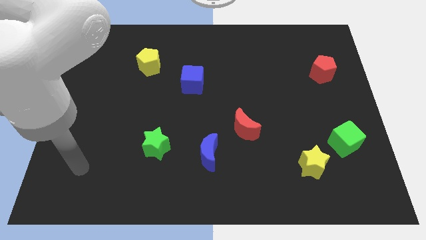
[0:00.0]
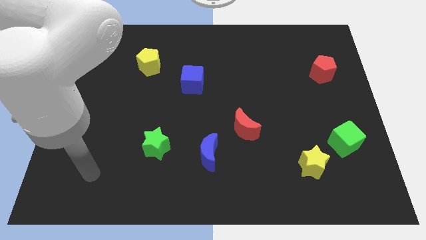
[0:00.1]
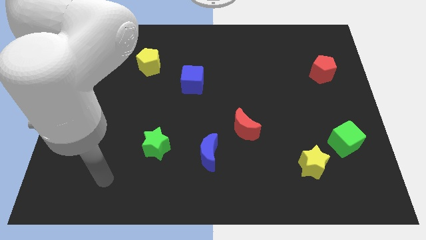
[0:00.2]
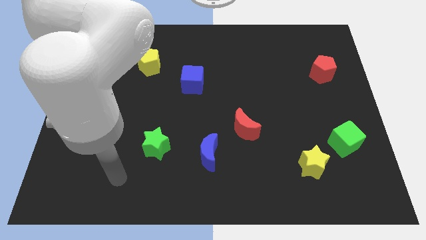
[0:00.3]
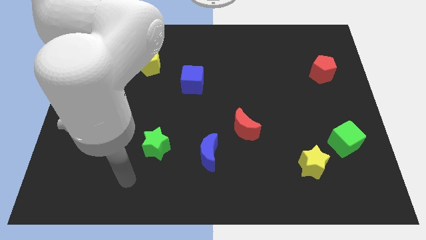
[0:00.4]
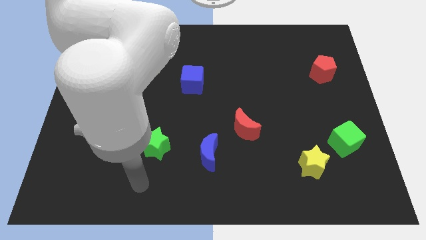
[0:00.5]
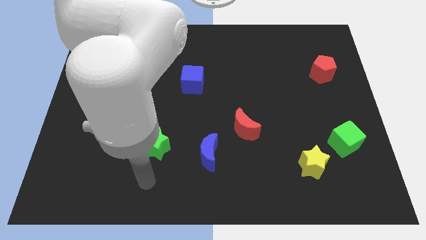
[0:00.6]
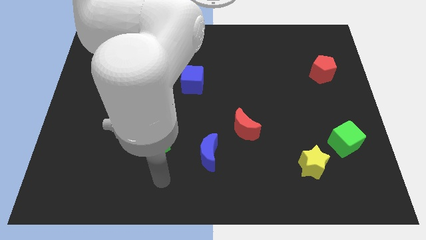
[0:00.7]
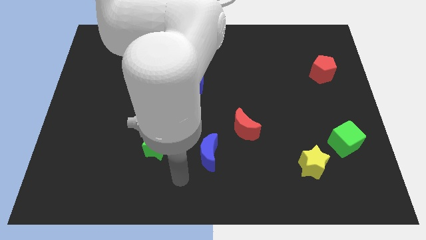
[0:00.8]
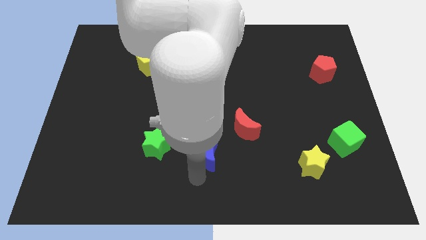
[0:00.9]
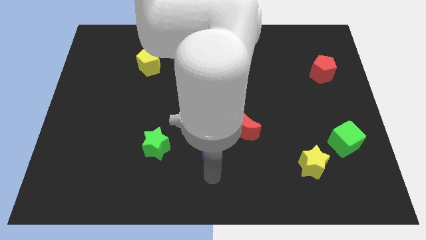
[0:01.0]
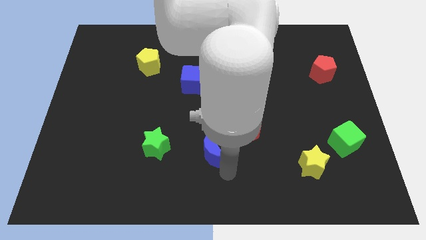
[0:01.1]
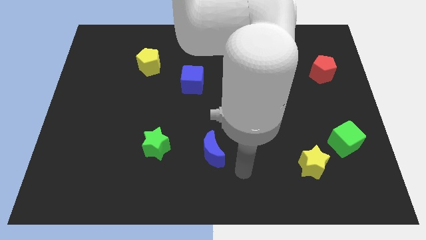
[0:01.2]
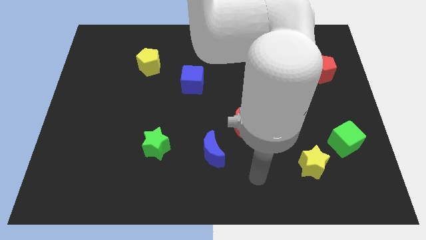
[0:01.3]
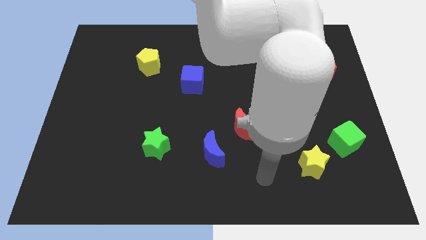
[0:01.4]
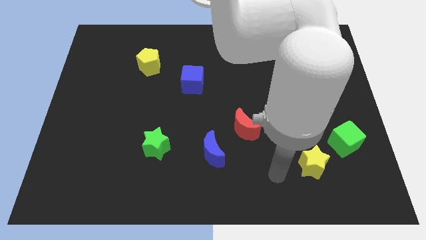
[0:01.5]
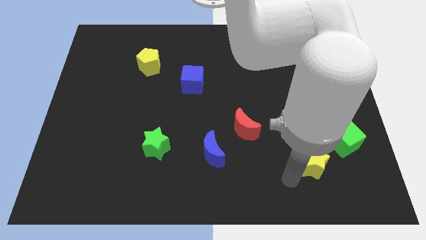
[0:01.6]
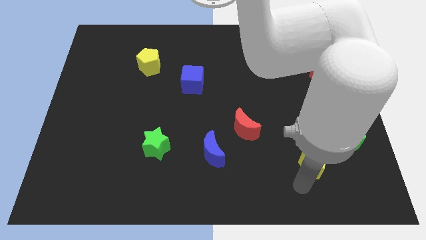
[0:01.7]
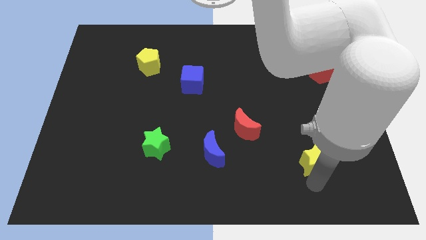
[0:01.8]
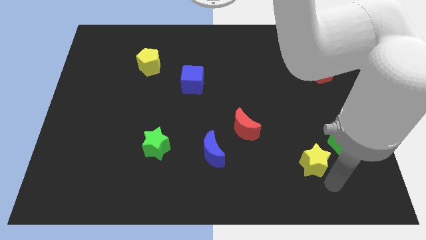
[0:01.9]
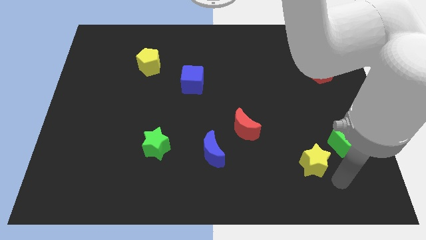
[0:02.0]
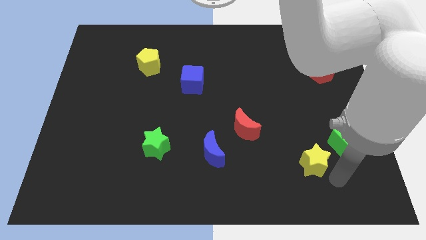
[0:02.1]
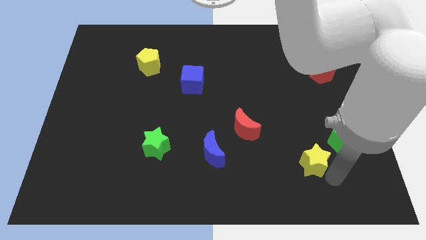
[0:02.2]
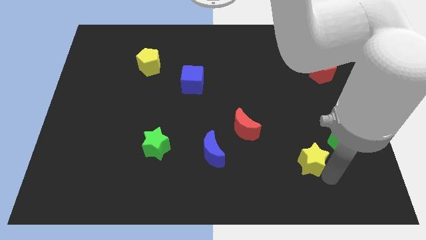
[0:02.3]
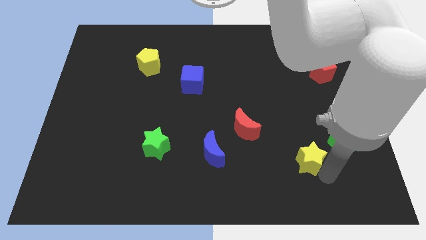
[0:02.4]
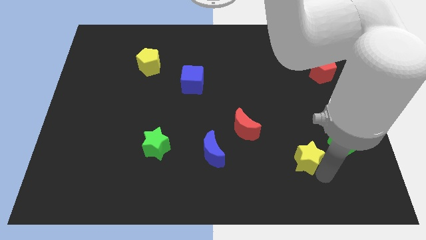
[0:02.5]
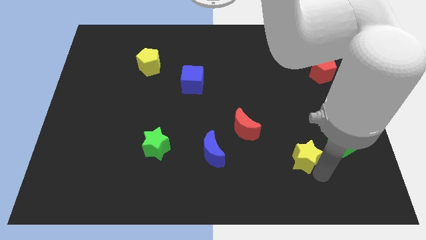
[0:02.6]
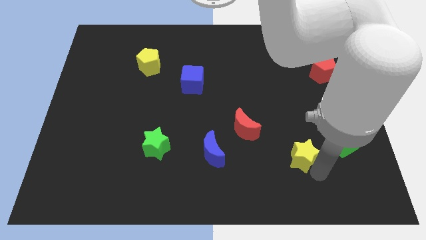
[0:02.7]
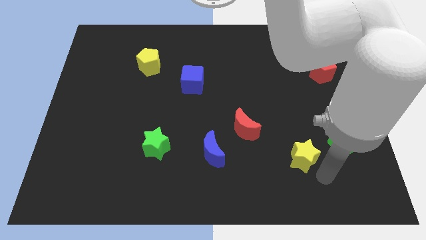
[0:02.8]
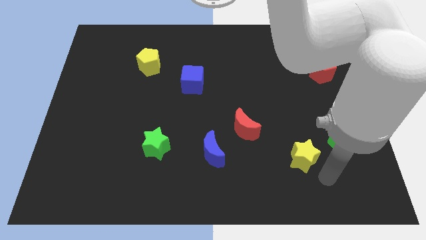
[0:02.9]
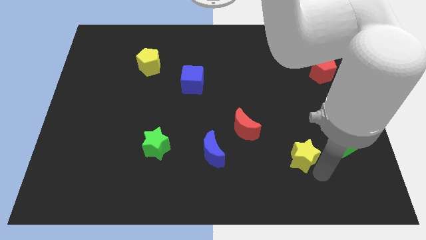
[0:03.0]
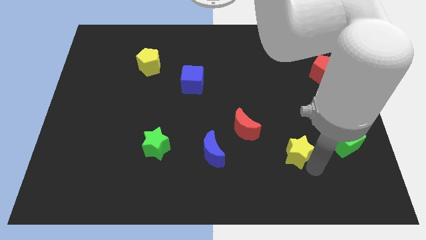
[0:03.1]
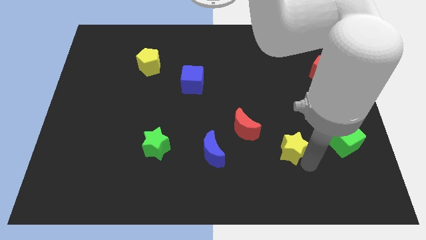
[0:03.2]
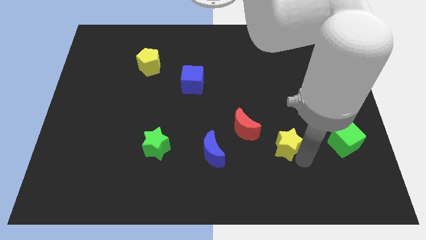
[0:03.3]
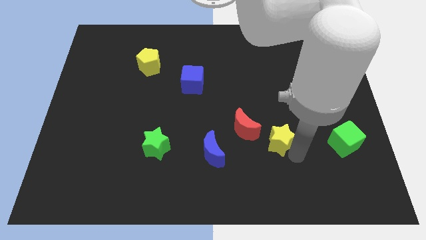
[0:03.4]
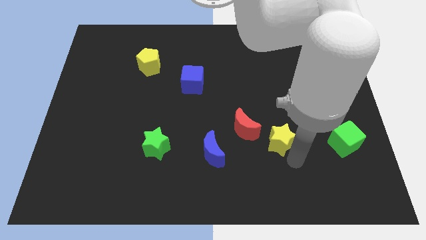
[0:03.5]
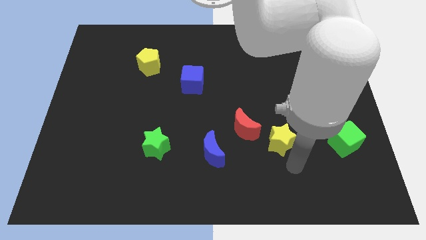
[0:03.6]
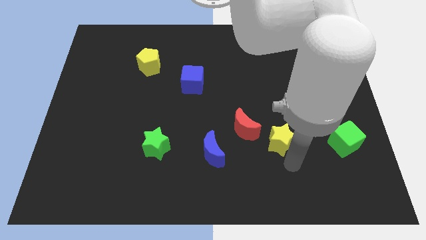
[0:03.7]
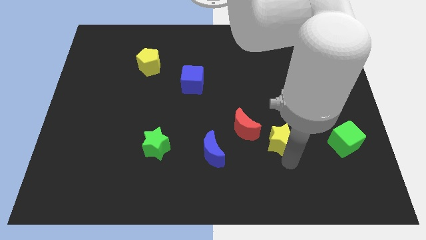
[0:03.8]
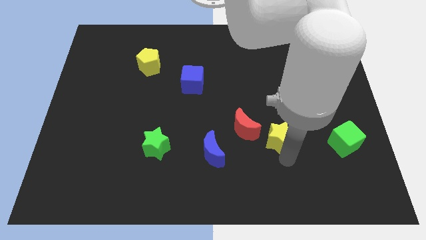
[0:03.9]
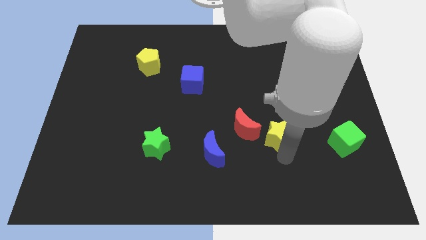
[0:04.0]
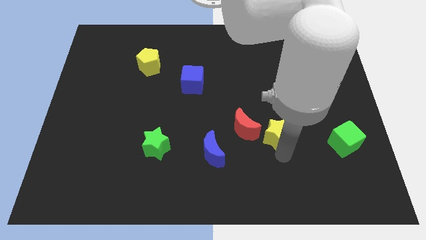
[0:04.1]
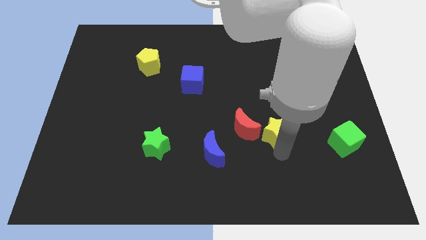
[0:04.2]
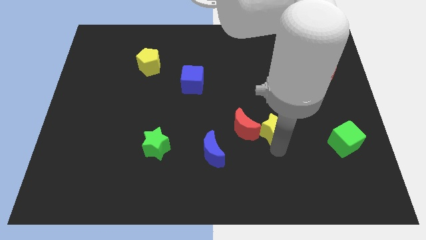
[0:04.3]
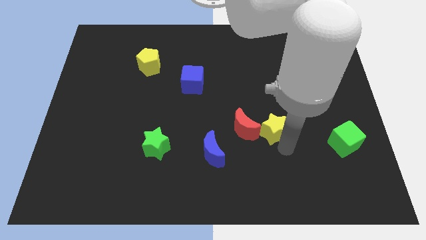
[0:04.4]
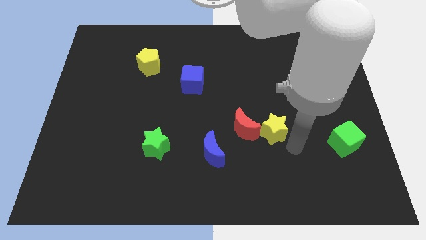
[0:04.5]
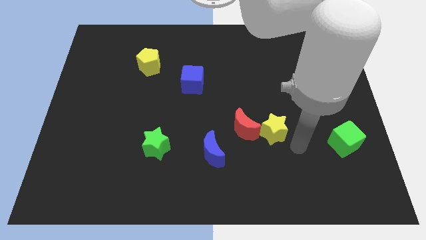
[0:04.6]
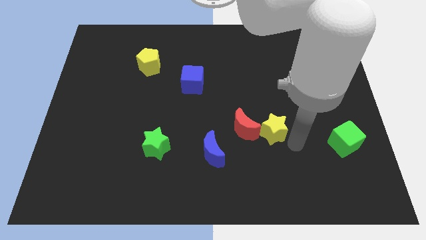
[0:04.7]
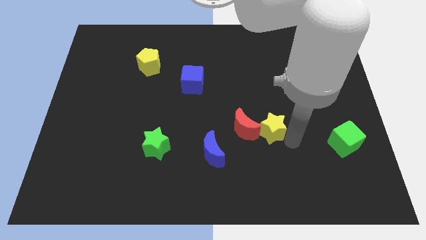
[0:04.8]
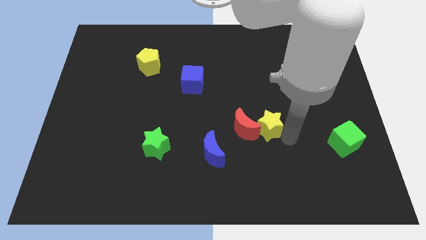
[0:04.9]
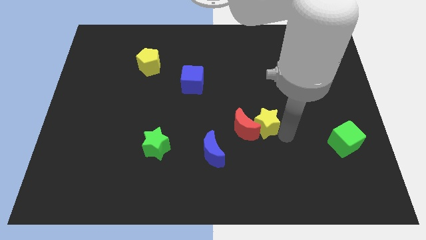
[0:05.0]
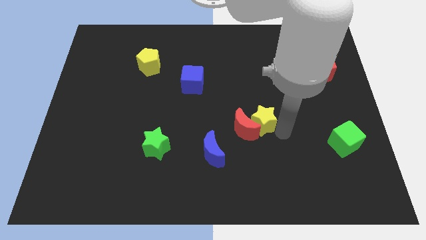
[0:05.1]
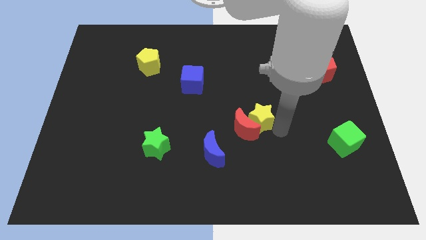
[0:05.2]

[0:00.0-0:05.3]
move the yellow star to the middle

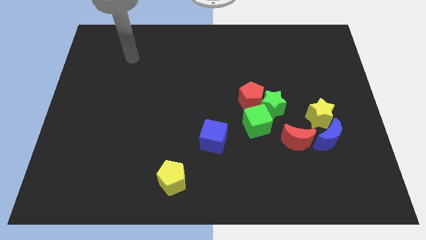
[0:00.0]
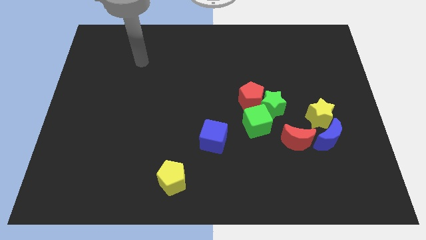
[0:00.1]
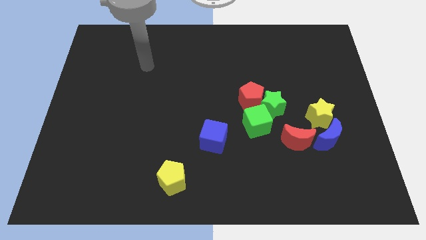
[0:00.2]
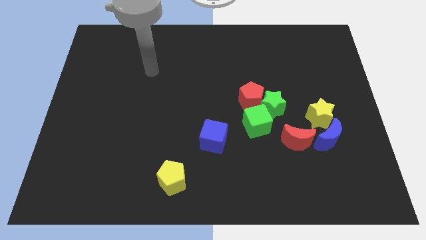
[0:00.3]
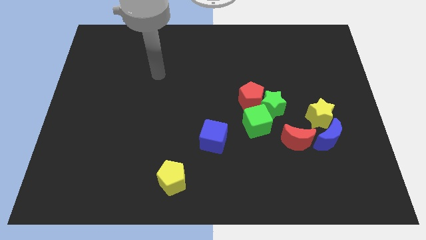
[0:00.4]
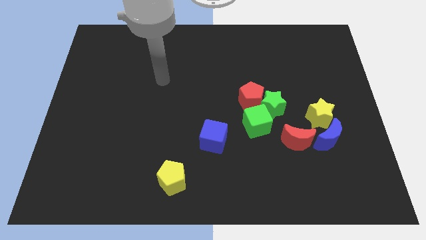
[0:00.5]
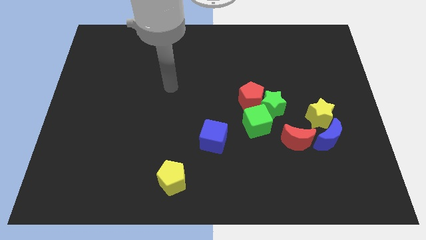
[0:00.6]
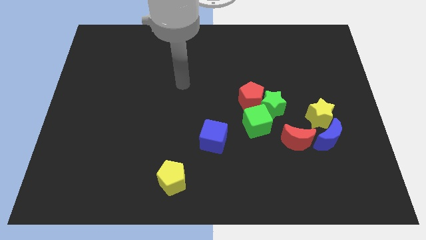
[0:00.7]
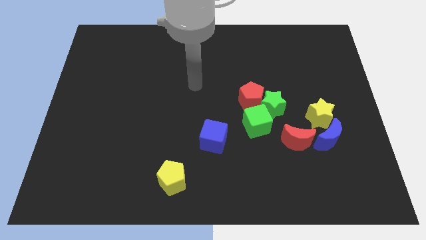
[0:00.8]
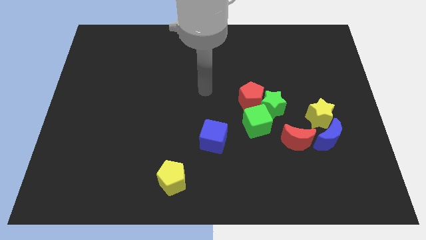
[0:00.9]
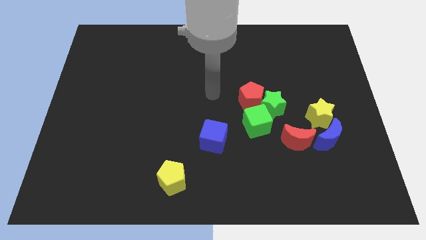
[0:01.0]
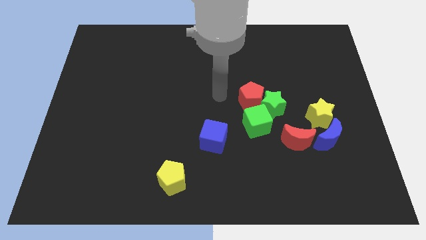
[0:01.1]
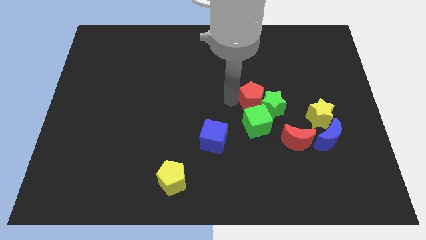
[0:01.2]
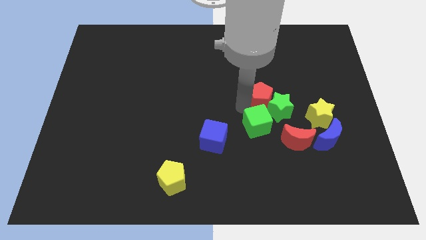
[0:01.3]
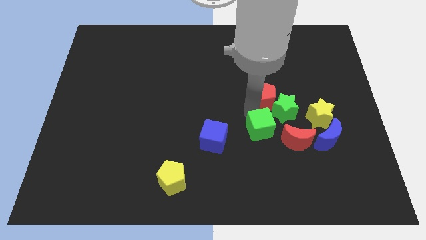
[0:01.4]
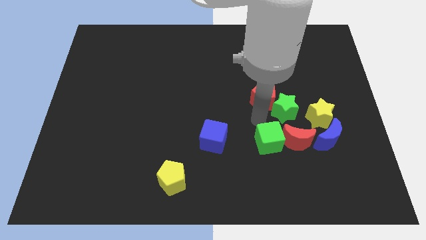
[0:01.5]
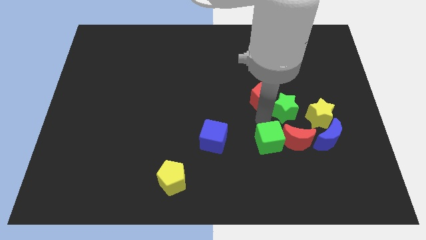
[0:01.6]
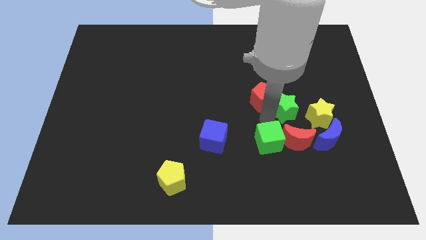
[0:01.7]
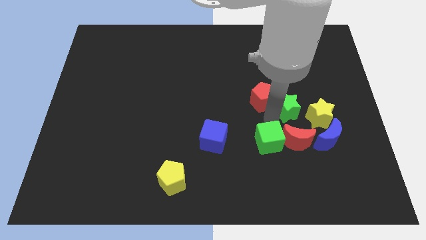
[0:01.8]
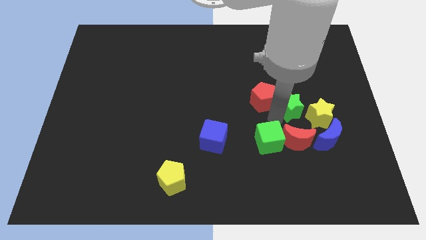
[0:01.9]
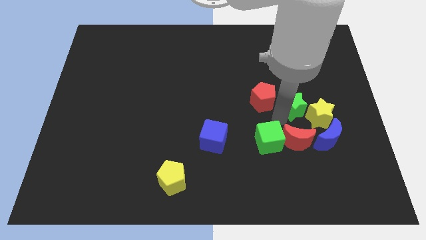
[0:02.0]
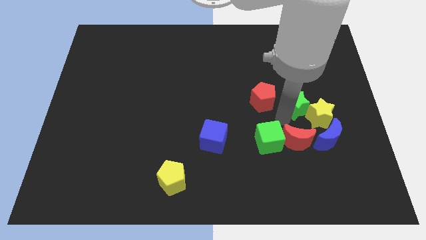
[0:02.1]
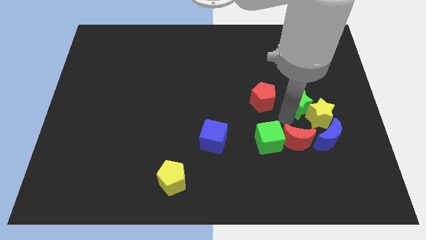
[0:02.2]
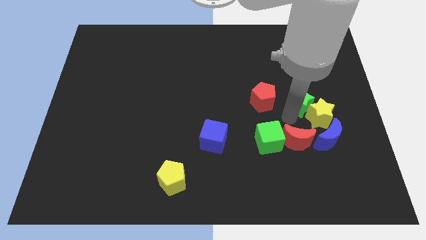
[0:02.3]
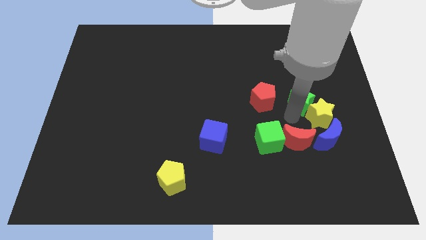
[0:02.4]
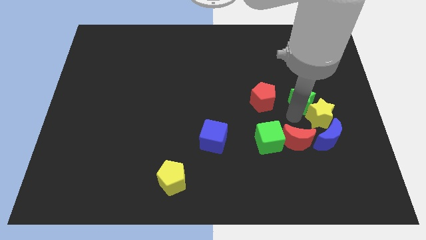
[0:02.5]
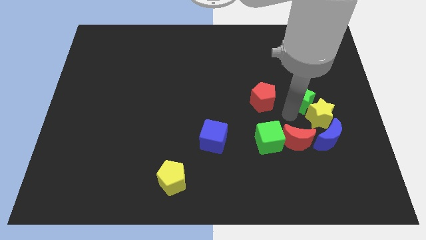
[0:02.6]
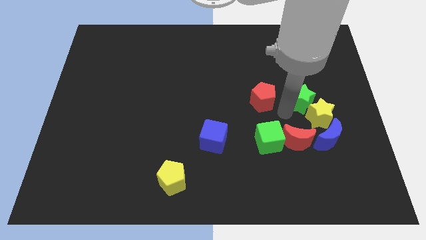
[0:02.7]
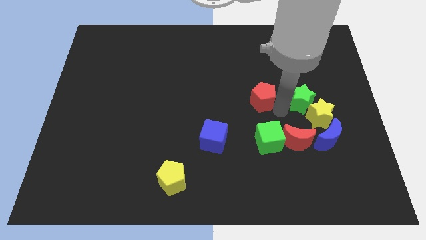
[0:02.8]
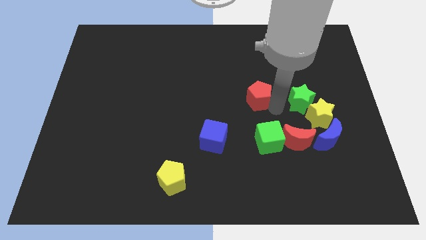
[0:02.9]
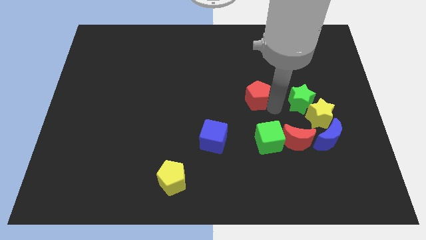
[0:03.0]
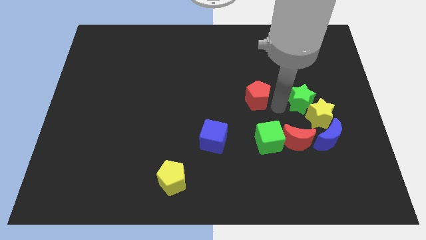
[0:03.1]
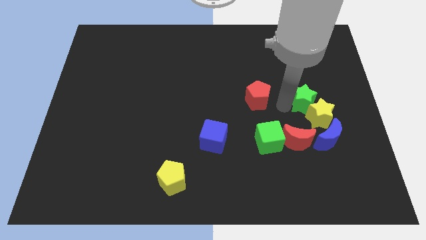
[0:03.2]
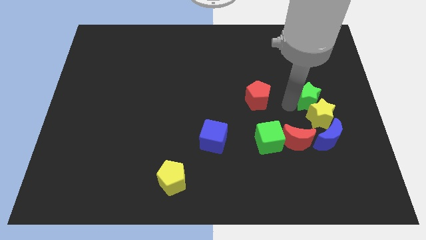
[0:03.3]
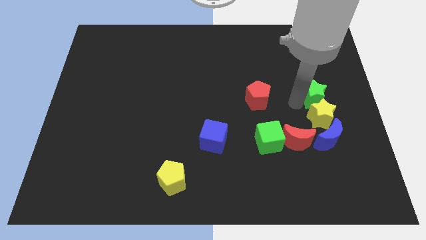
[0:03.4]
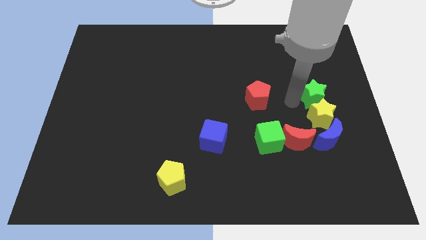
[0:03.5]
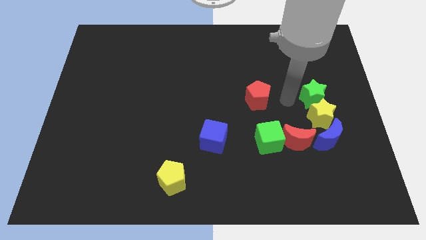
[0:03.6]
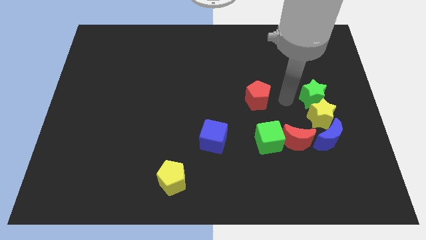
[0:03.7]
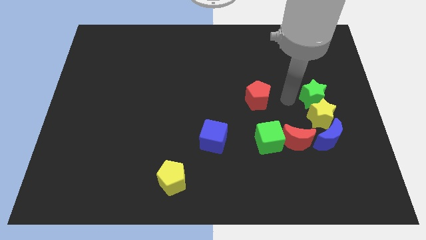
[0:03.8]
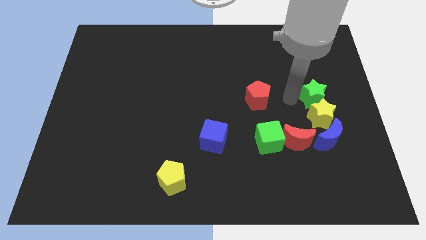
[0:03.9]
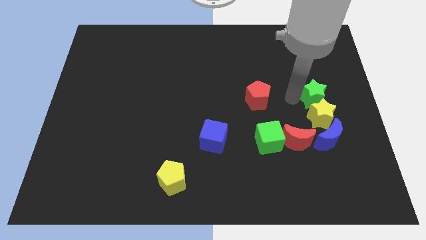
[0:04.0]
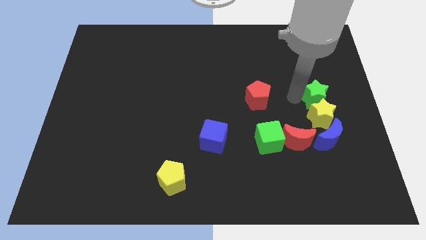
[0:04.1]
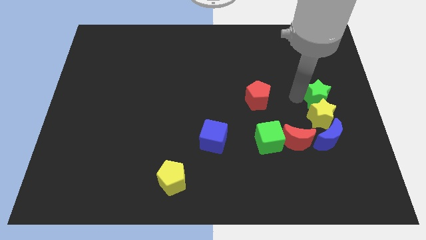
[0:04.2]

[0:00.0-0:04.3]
slide the green star to the right side of the board
